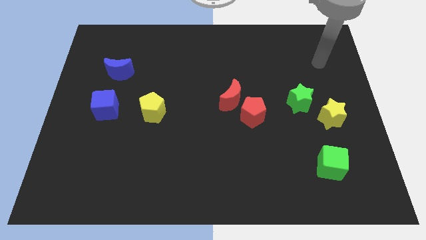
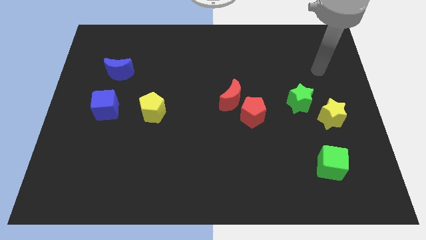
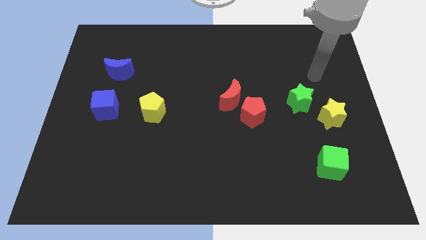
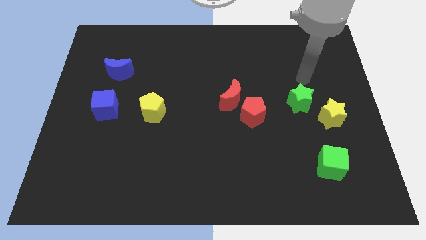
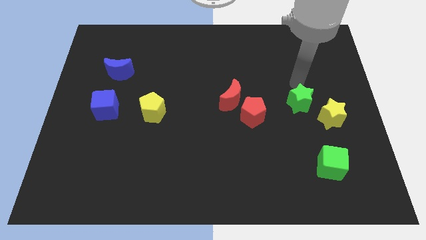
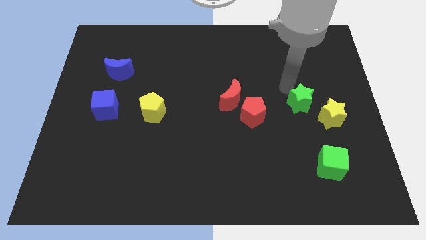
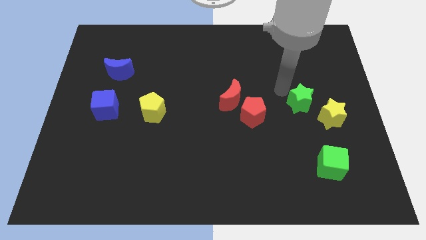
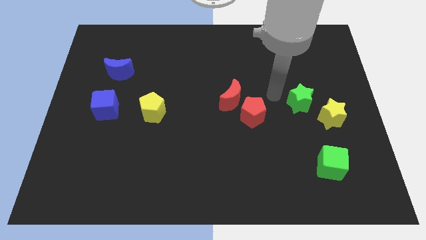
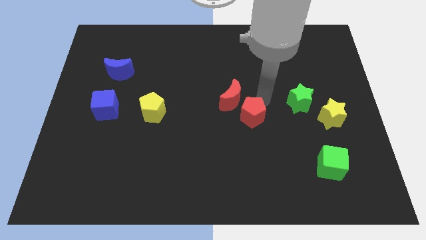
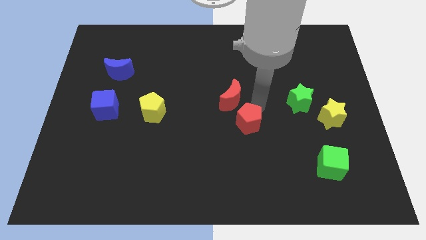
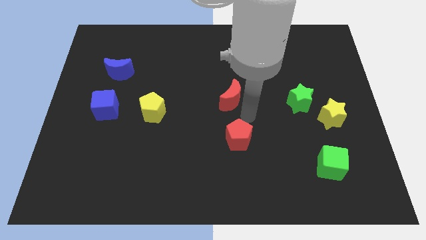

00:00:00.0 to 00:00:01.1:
separate the red moon from the red pentagon

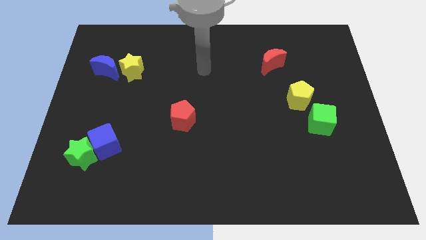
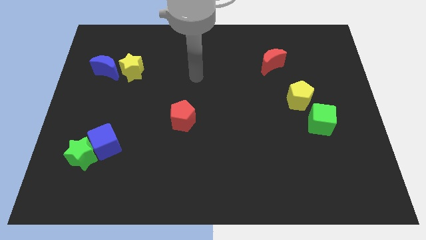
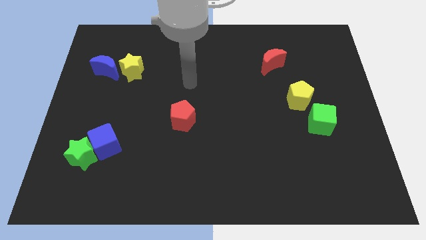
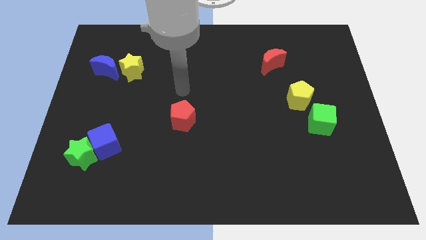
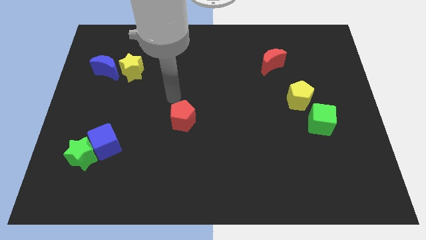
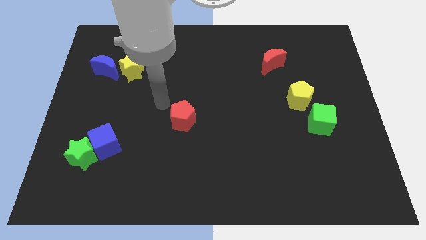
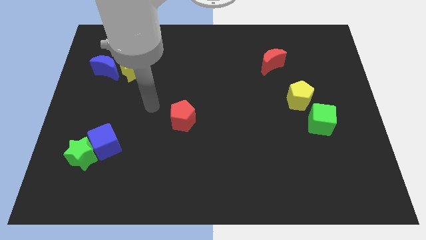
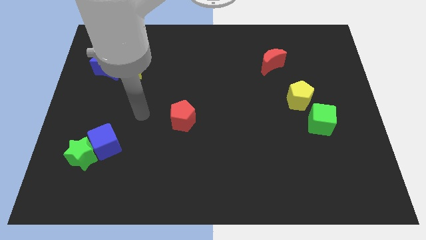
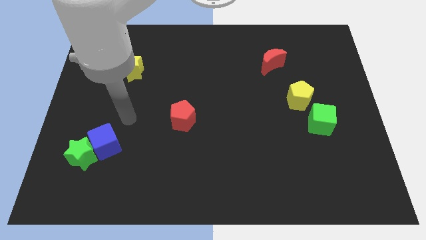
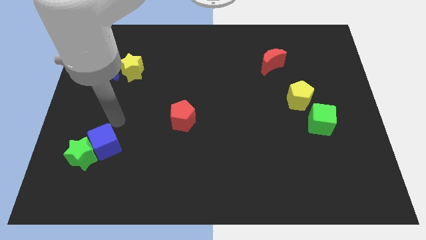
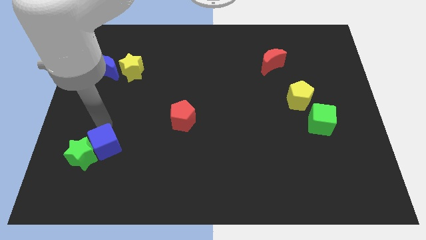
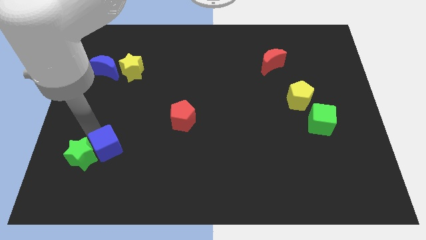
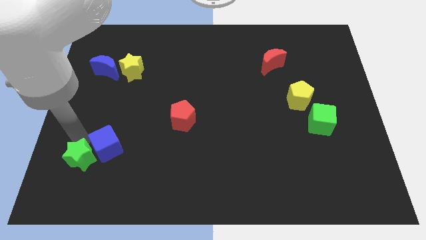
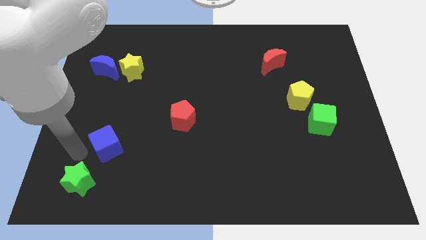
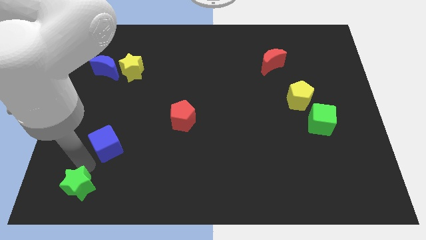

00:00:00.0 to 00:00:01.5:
pull the blue cube apart from the green star

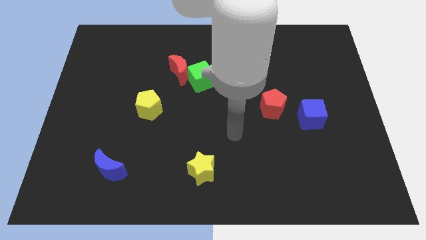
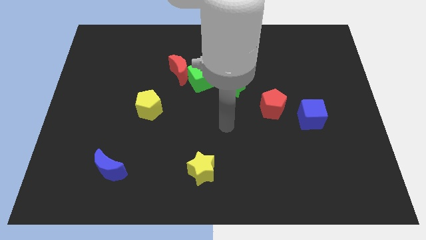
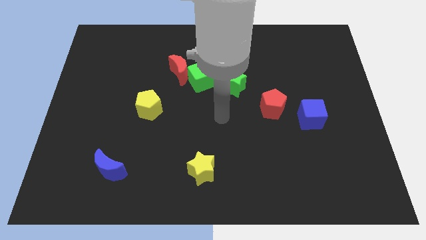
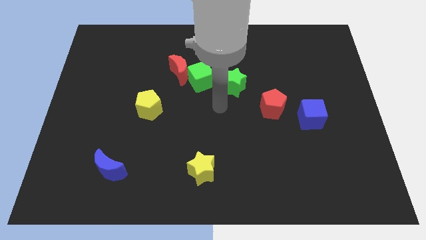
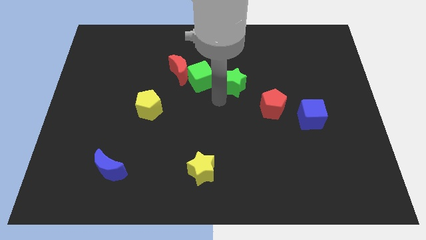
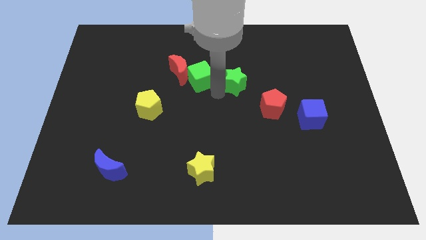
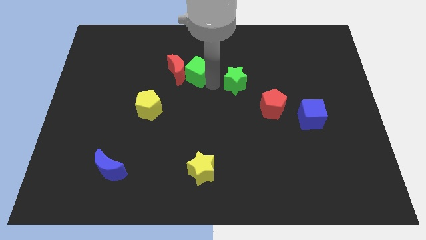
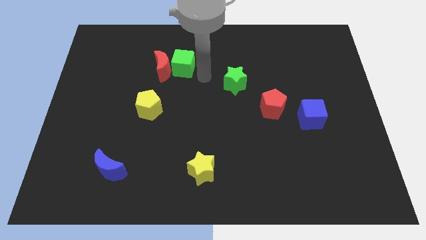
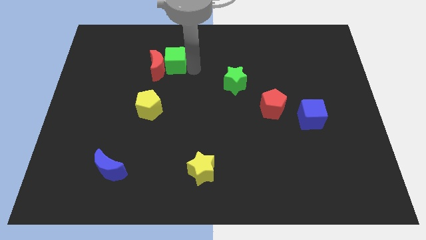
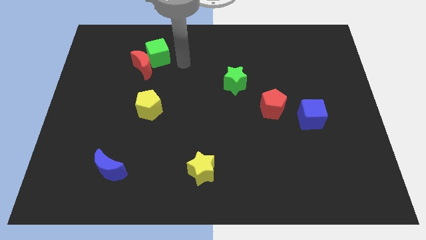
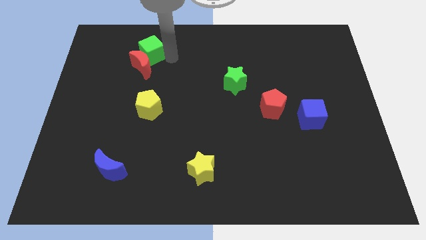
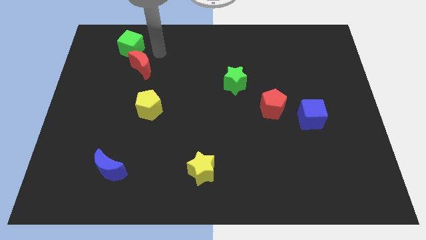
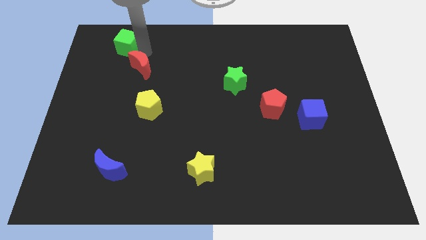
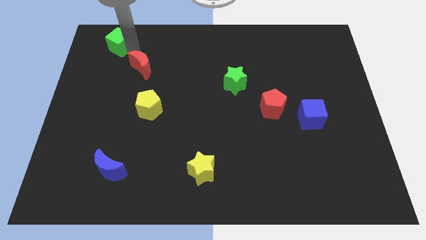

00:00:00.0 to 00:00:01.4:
separate the red moon from the green cube

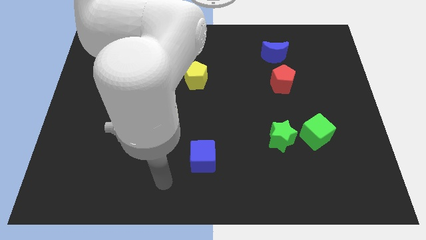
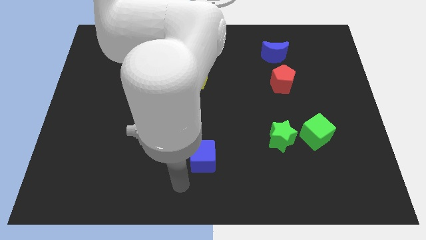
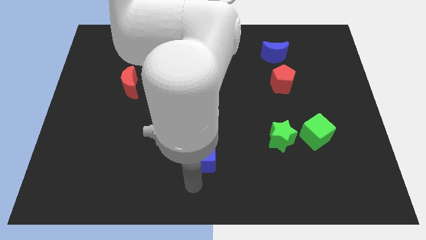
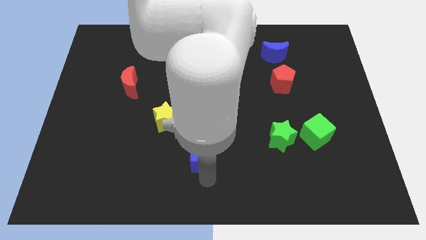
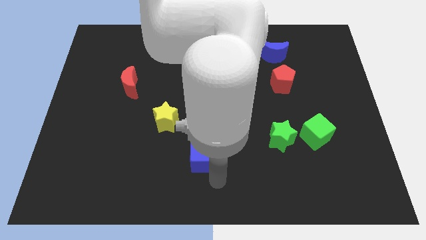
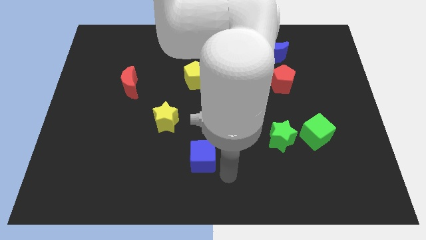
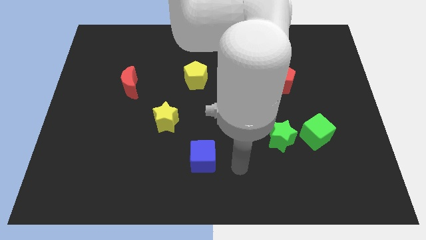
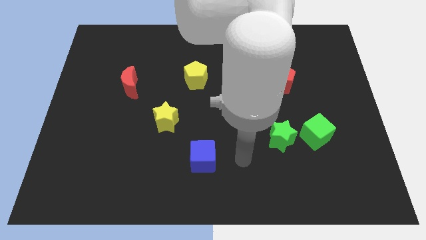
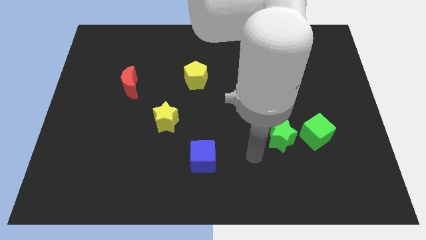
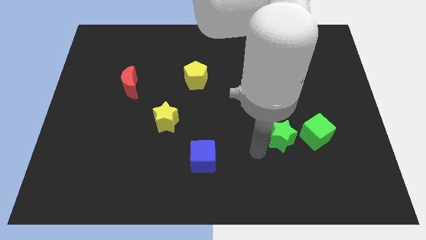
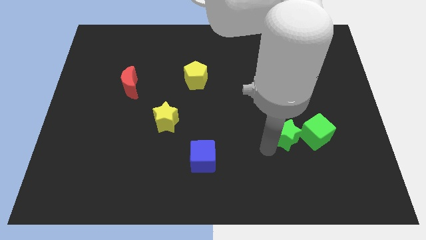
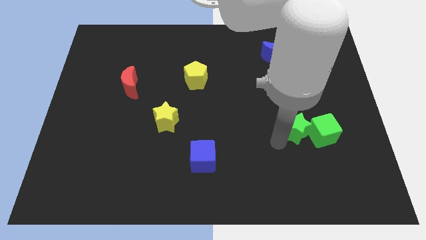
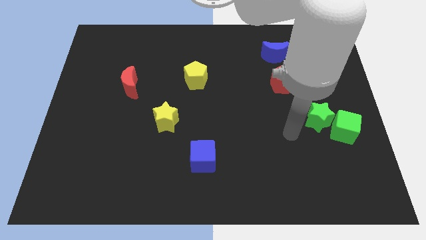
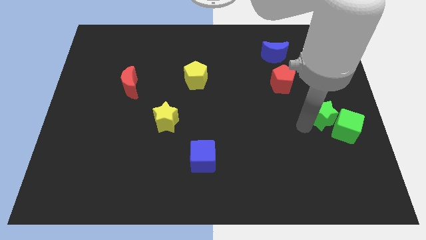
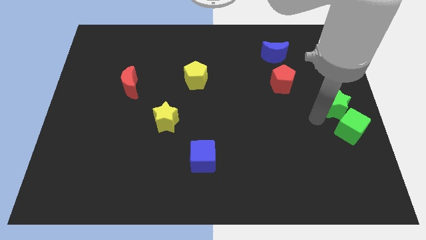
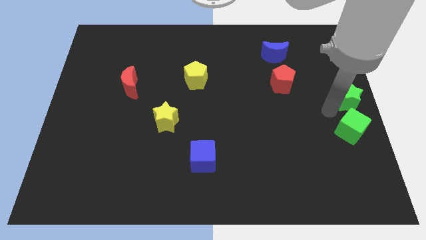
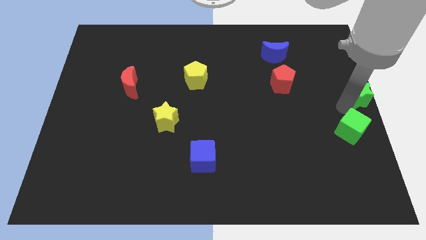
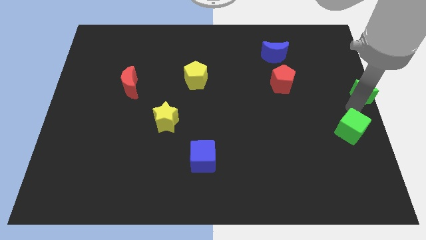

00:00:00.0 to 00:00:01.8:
pull the green cube apart from the green star

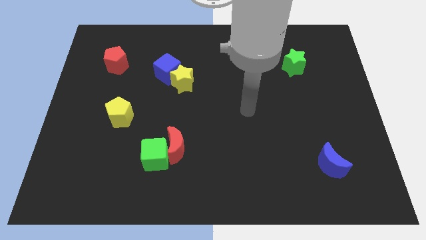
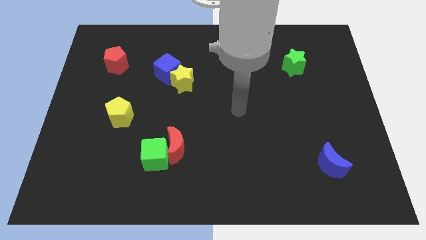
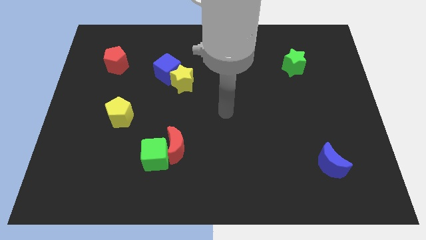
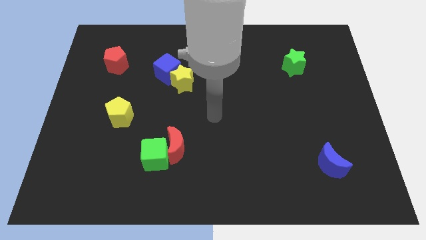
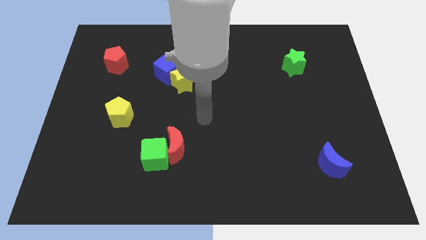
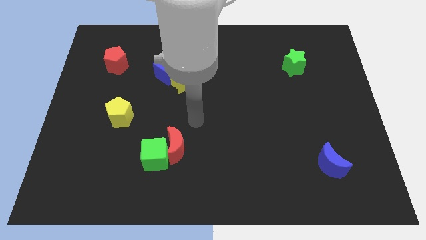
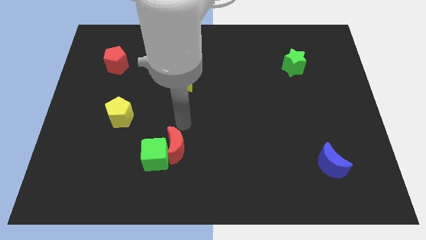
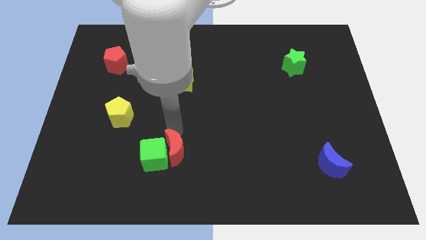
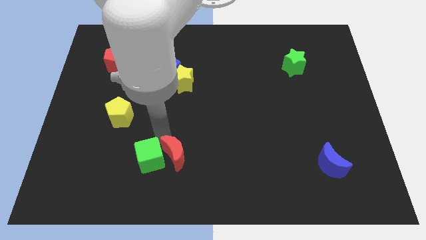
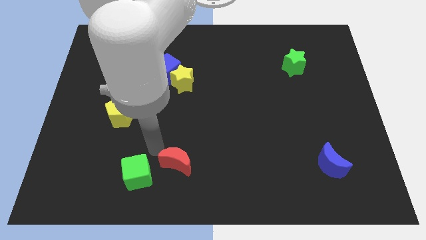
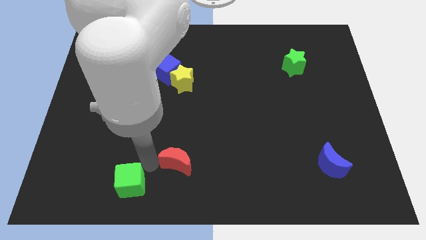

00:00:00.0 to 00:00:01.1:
move the red moon away from the green cube

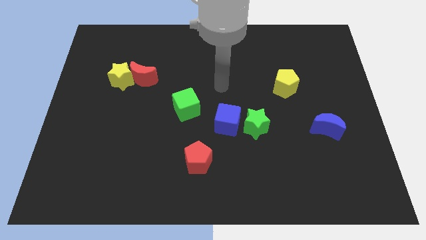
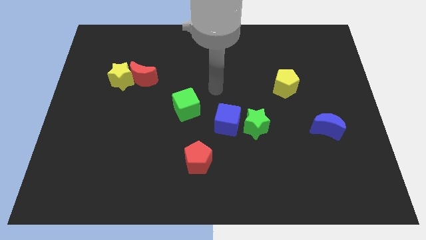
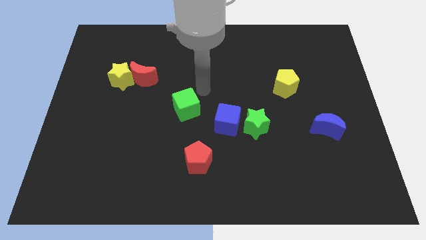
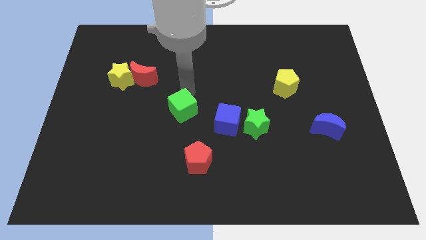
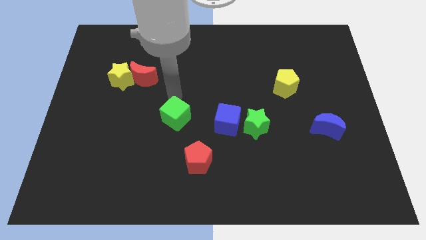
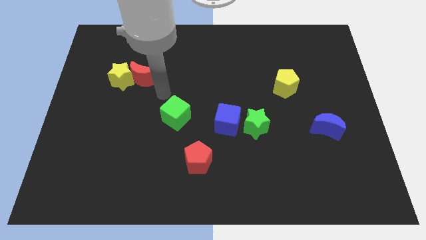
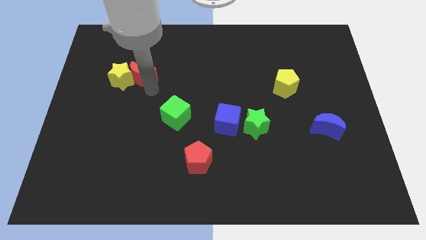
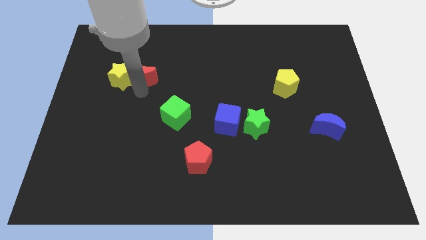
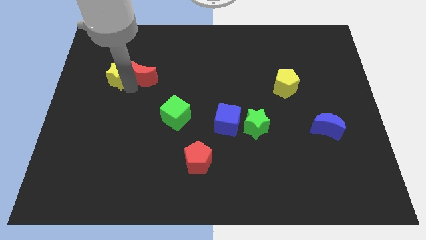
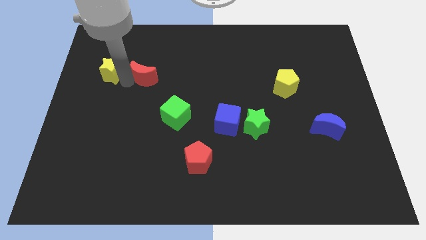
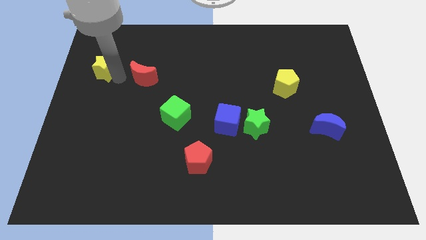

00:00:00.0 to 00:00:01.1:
separate the red moon from the yellow star

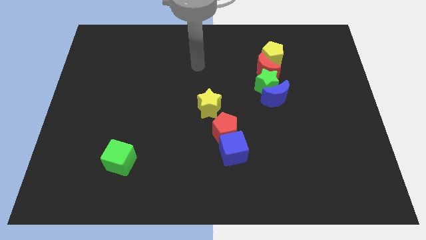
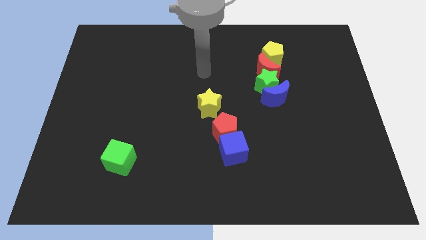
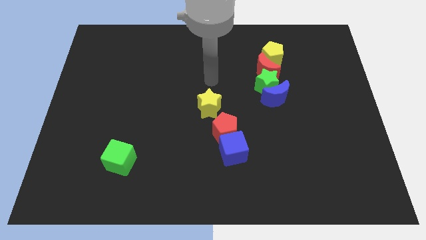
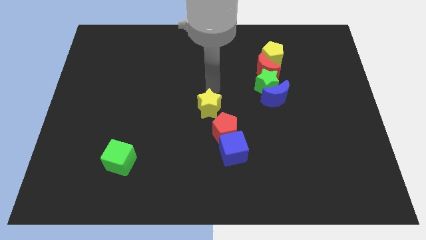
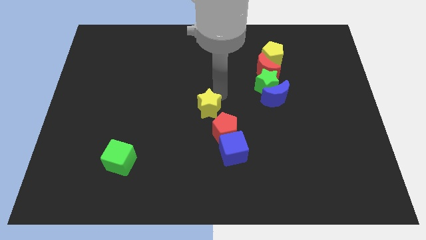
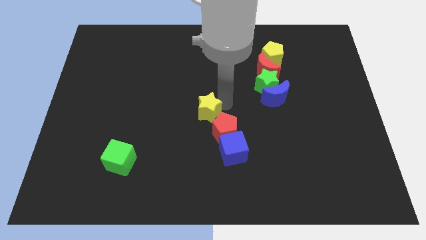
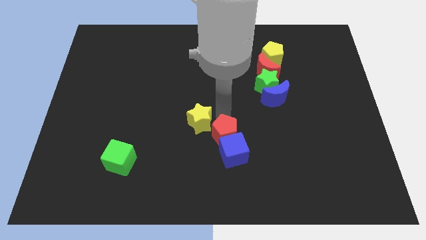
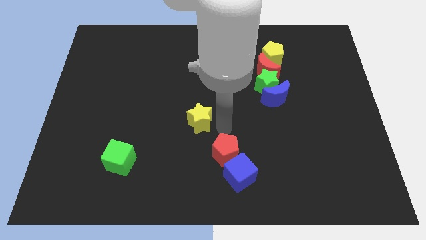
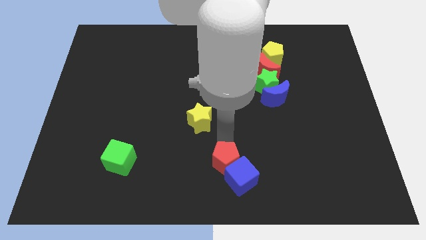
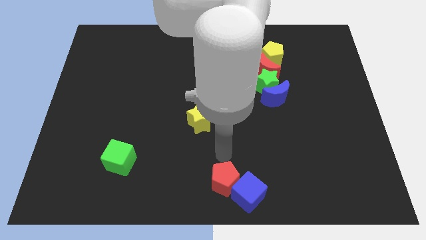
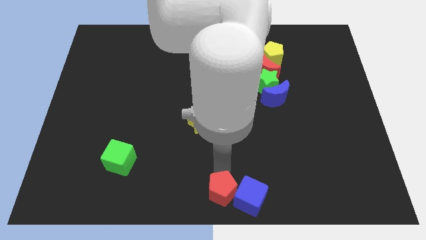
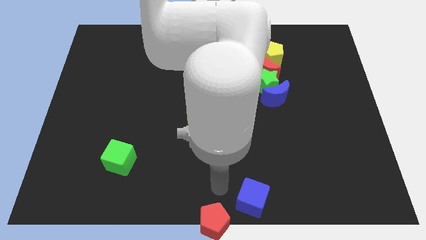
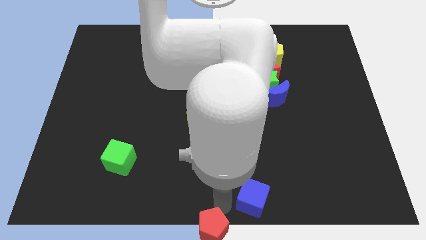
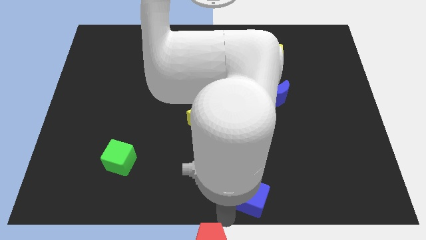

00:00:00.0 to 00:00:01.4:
separate the blue cube from the red pentagon
